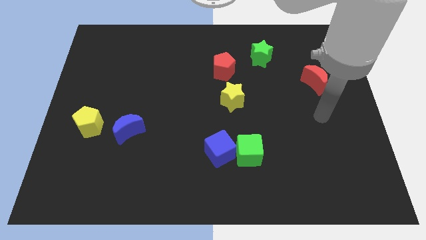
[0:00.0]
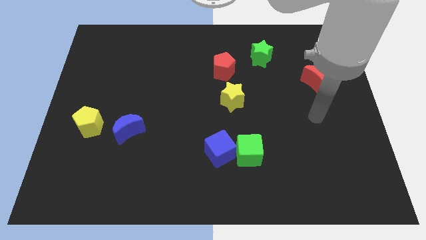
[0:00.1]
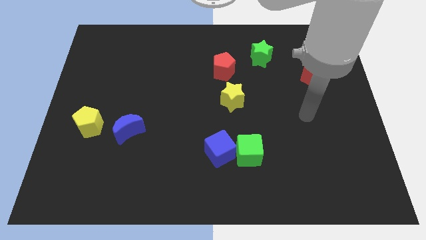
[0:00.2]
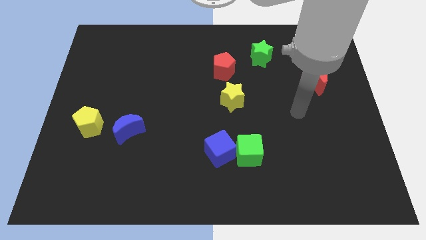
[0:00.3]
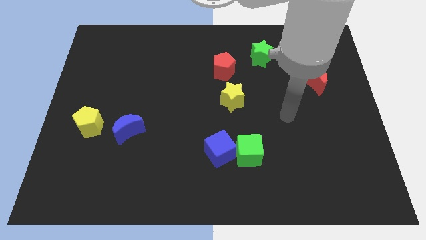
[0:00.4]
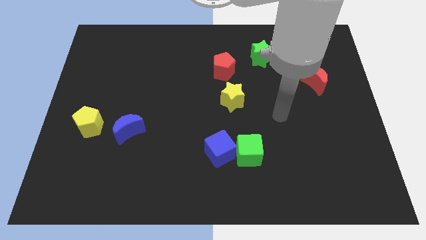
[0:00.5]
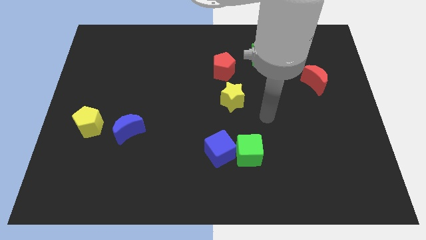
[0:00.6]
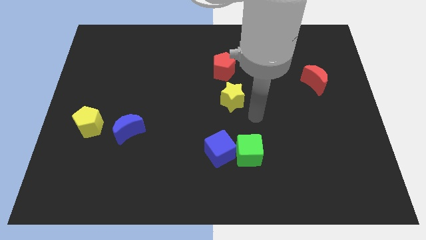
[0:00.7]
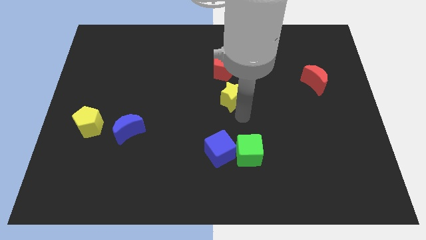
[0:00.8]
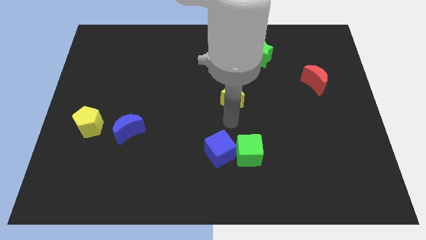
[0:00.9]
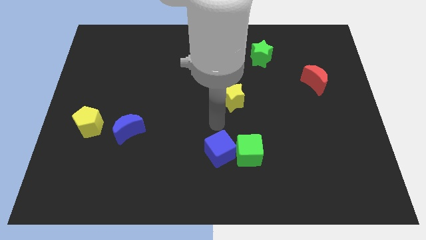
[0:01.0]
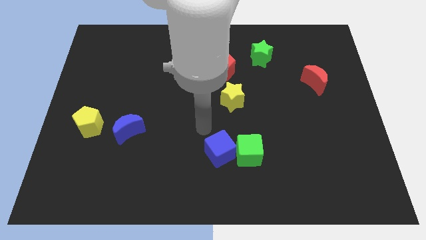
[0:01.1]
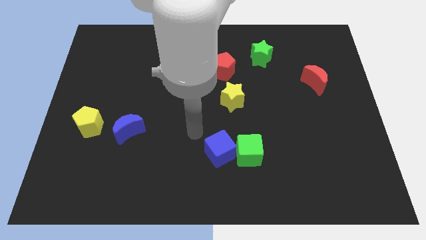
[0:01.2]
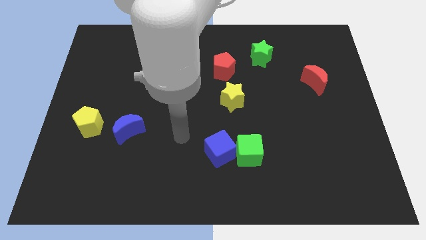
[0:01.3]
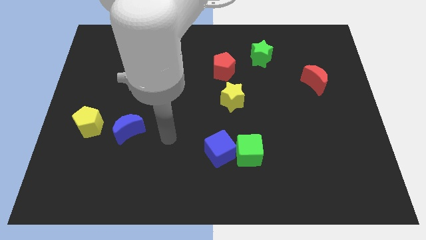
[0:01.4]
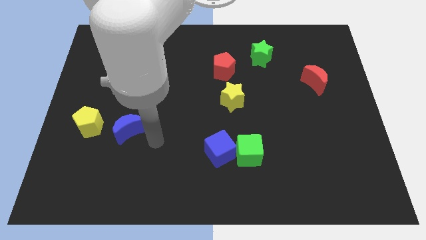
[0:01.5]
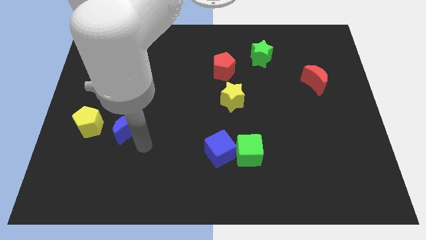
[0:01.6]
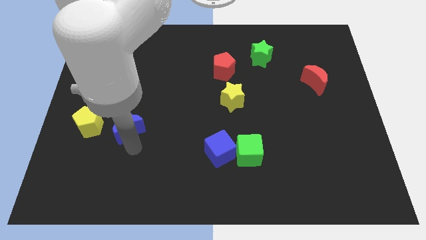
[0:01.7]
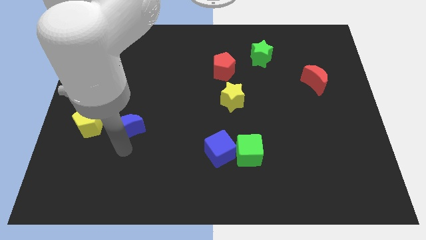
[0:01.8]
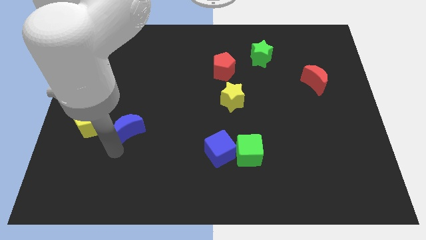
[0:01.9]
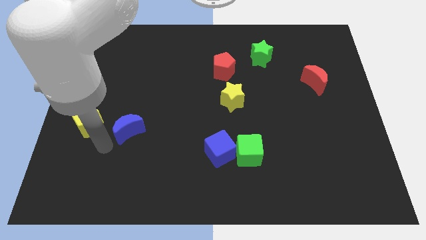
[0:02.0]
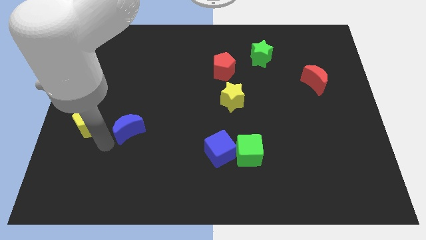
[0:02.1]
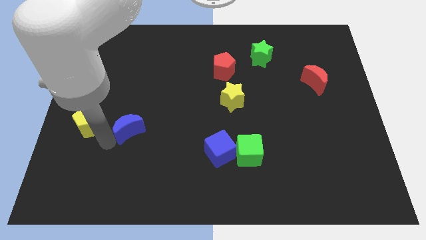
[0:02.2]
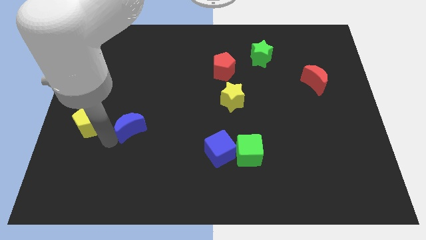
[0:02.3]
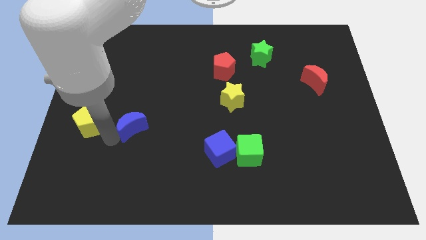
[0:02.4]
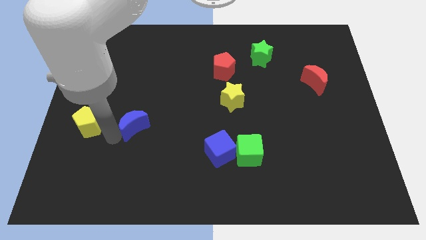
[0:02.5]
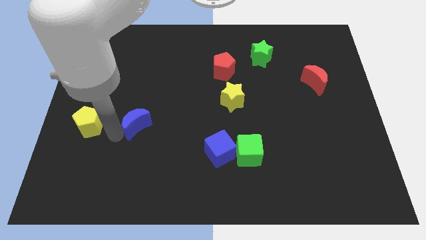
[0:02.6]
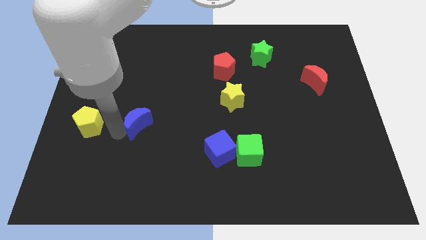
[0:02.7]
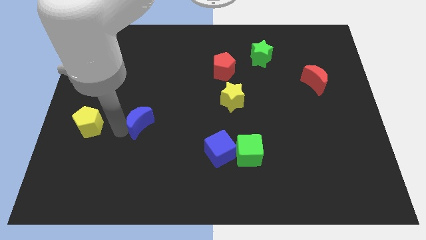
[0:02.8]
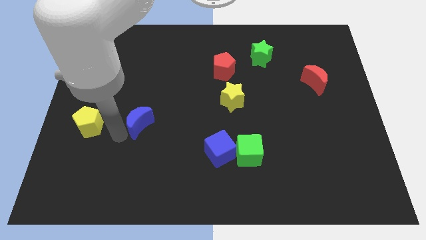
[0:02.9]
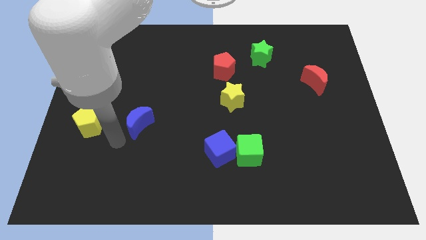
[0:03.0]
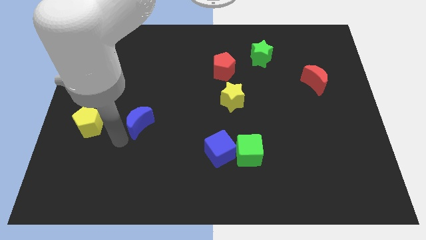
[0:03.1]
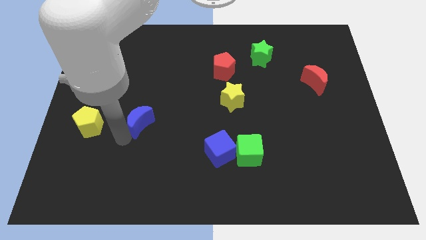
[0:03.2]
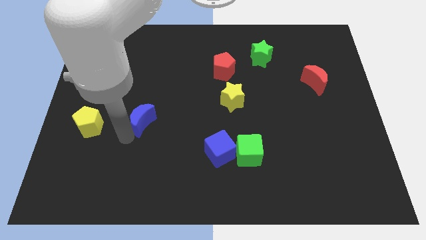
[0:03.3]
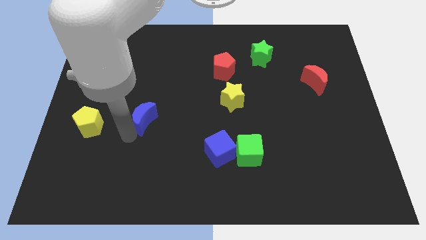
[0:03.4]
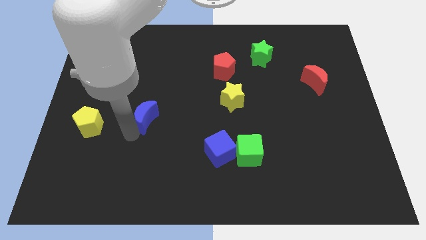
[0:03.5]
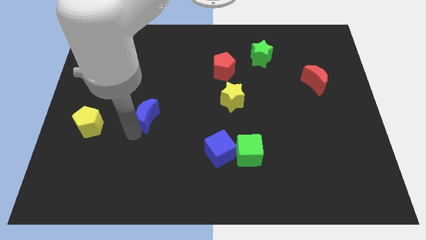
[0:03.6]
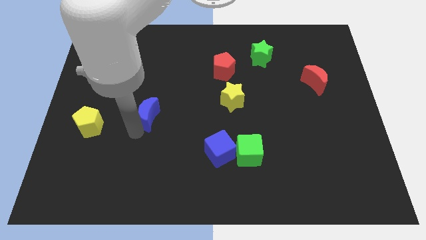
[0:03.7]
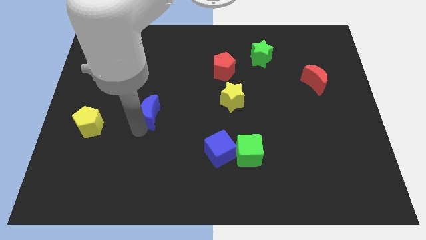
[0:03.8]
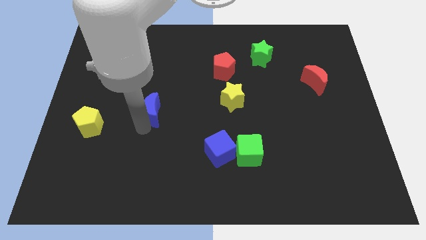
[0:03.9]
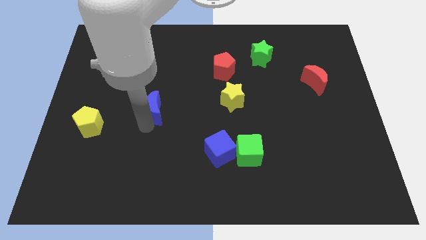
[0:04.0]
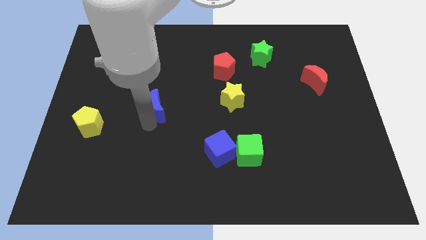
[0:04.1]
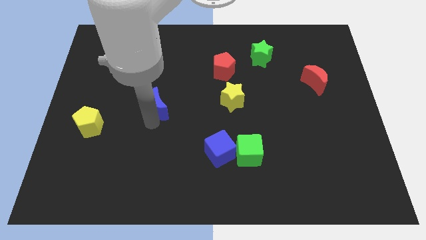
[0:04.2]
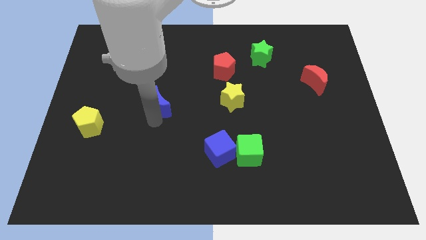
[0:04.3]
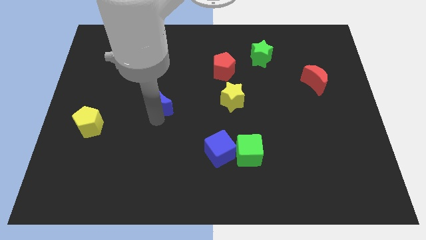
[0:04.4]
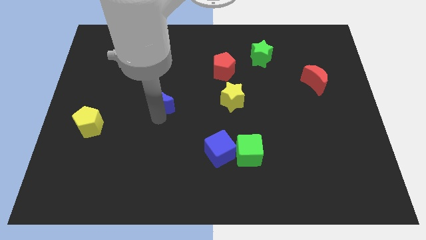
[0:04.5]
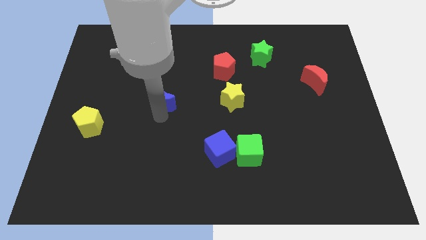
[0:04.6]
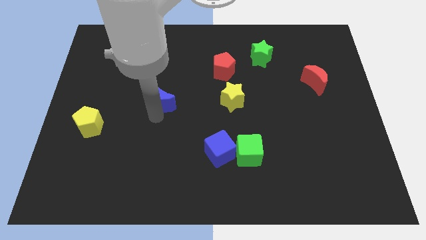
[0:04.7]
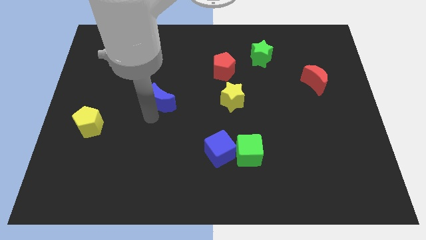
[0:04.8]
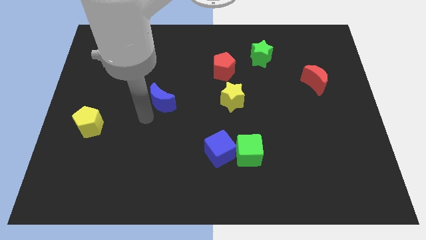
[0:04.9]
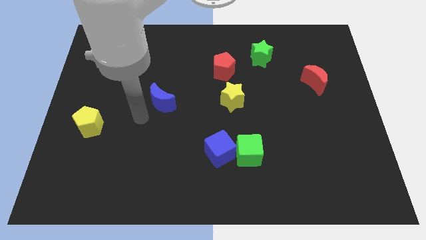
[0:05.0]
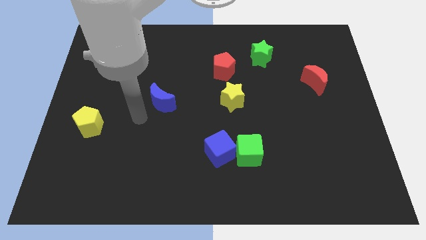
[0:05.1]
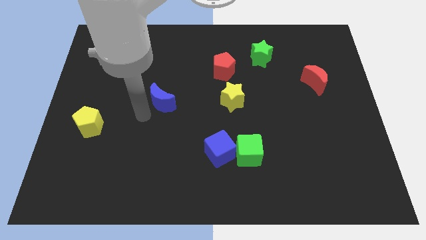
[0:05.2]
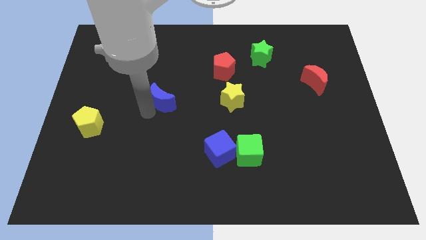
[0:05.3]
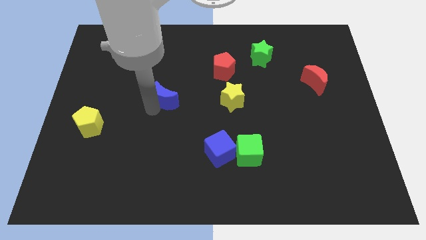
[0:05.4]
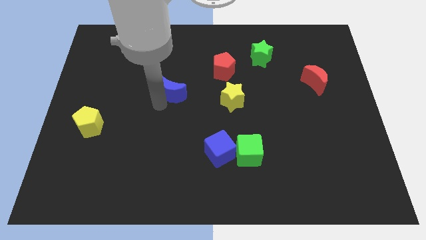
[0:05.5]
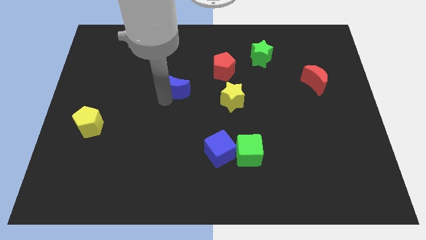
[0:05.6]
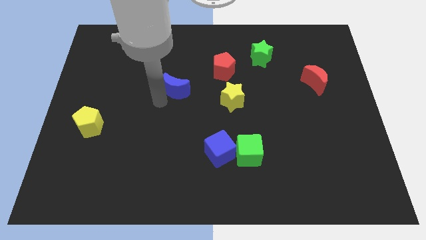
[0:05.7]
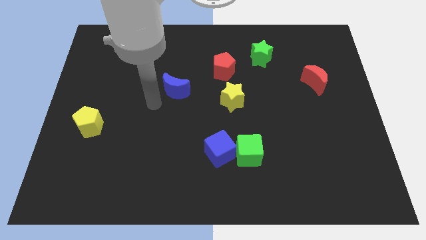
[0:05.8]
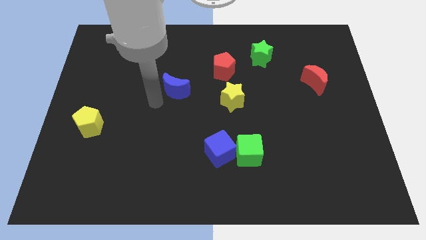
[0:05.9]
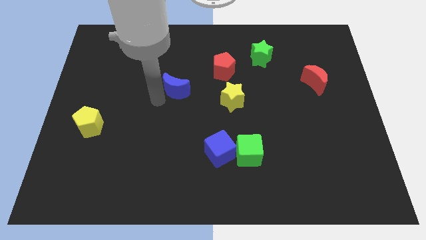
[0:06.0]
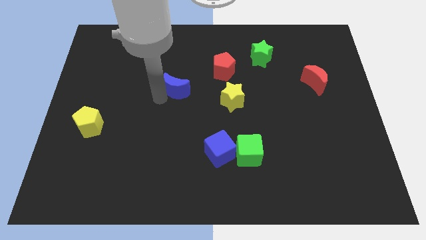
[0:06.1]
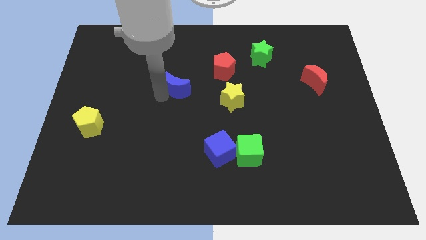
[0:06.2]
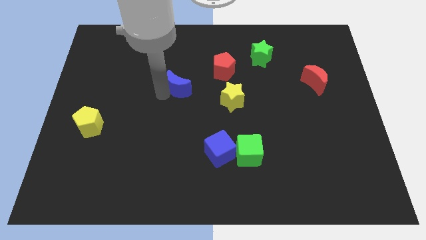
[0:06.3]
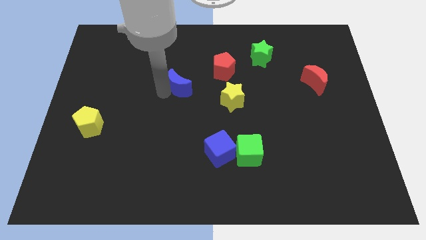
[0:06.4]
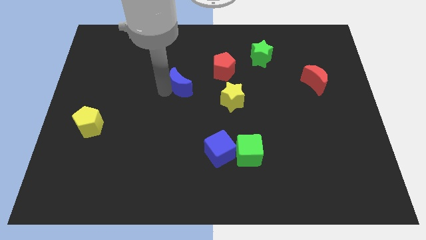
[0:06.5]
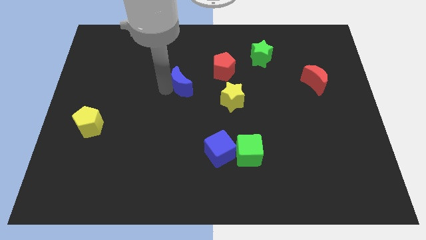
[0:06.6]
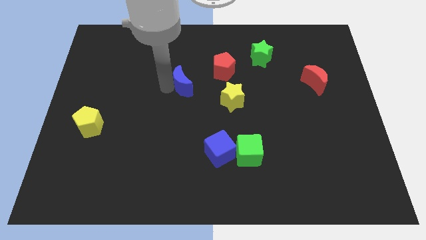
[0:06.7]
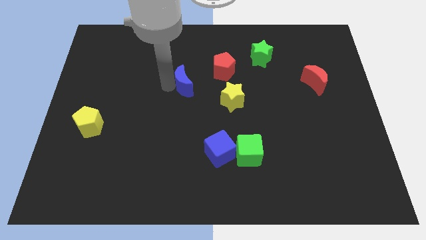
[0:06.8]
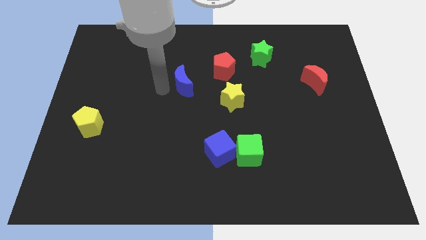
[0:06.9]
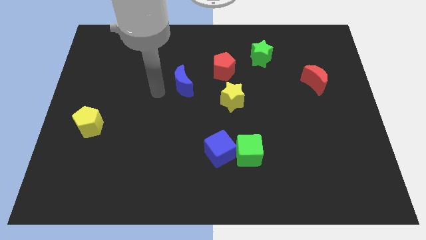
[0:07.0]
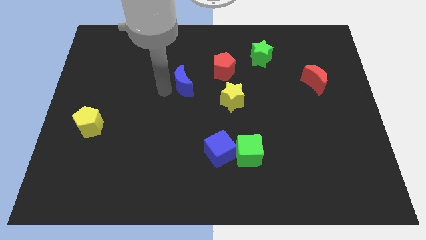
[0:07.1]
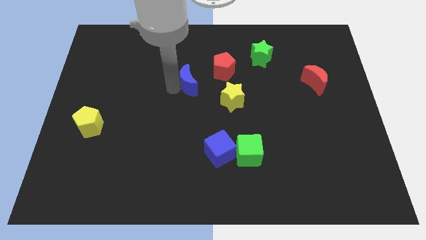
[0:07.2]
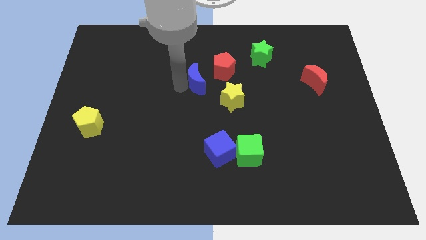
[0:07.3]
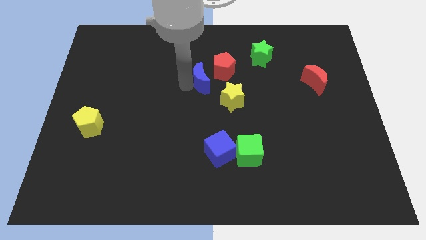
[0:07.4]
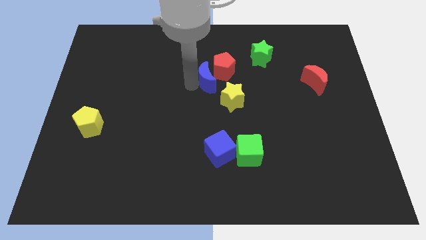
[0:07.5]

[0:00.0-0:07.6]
put the blue moon towards the red pentagon
